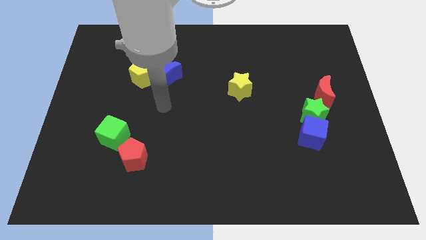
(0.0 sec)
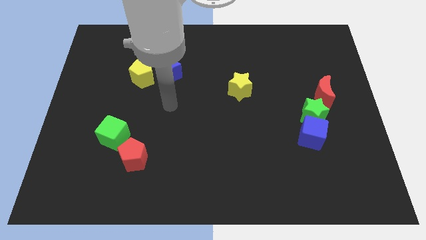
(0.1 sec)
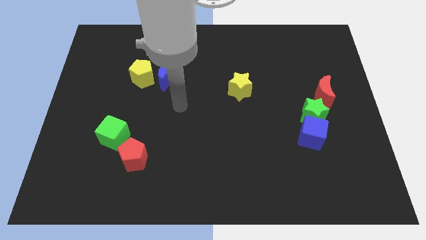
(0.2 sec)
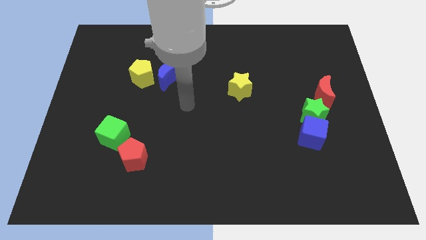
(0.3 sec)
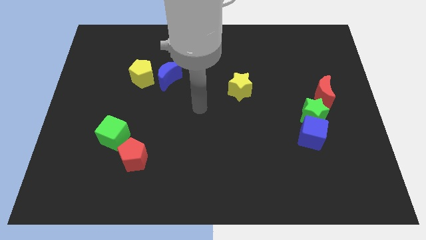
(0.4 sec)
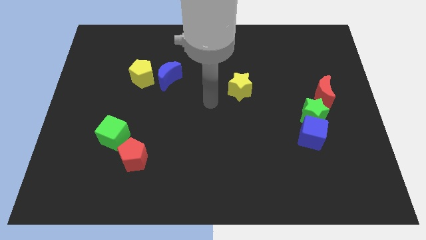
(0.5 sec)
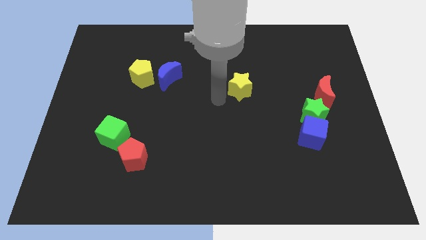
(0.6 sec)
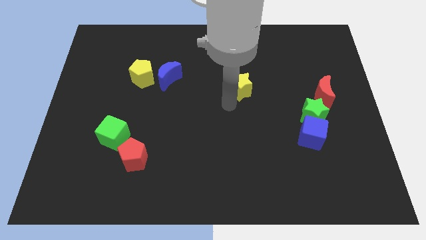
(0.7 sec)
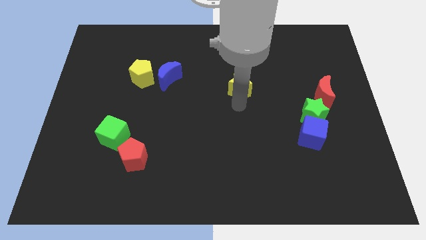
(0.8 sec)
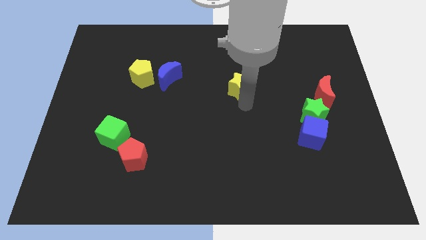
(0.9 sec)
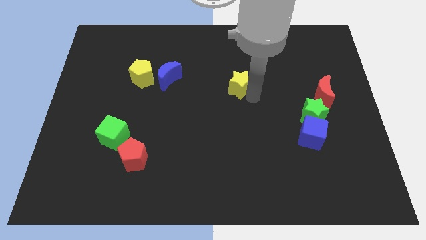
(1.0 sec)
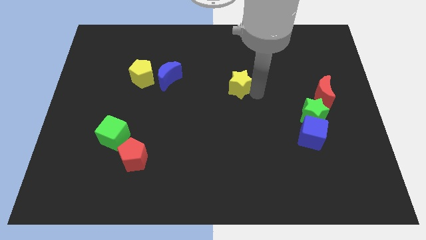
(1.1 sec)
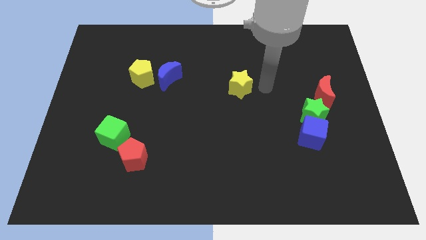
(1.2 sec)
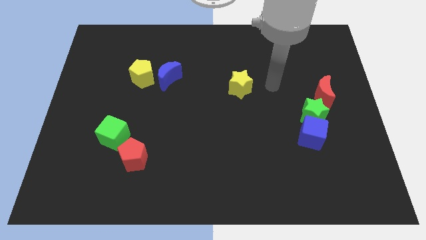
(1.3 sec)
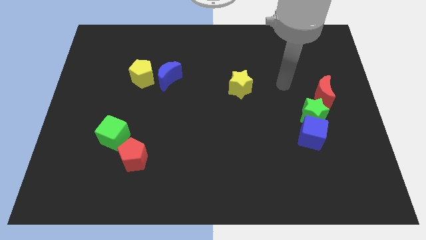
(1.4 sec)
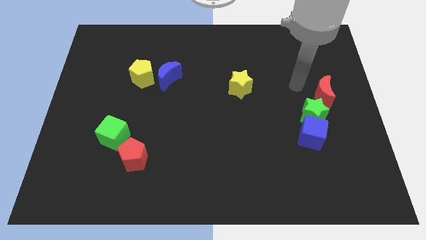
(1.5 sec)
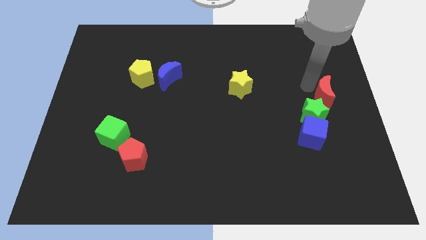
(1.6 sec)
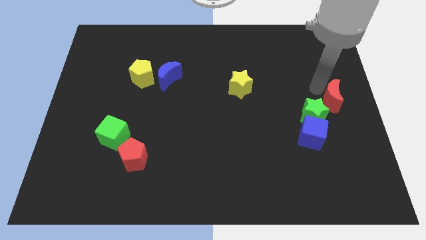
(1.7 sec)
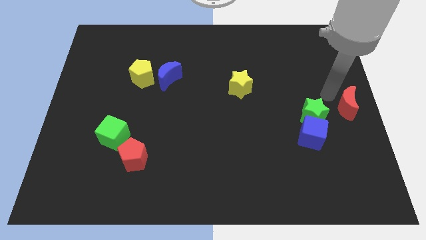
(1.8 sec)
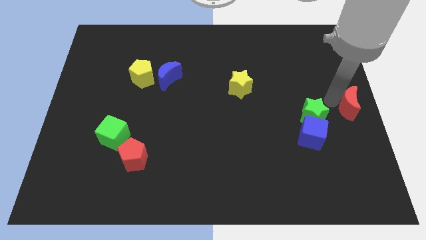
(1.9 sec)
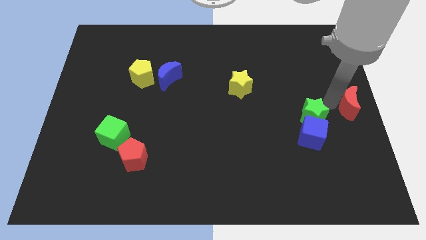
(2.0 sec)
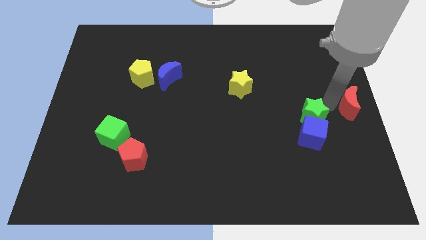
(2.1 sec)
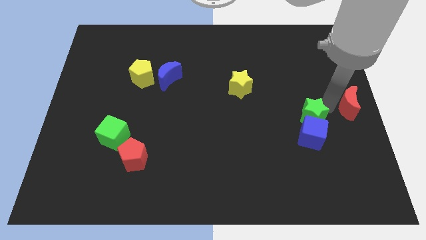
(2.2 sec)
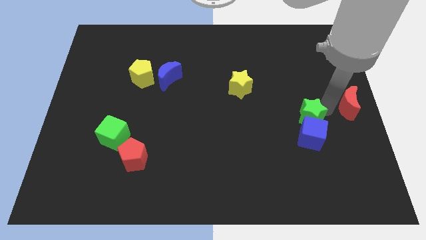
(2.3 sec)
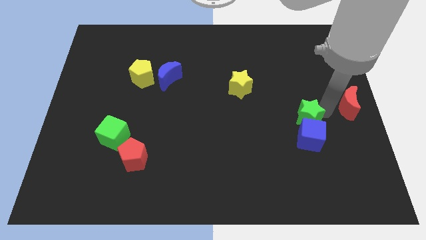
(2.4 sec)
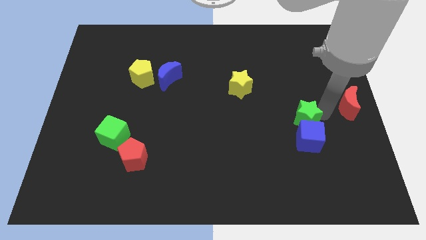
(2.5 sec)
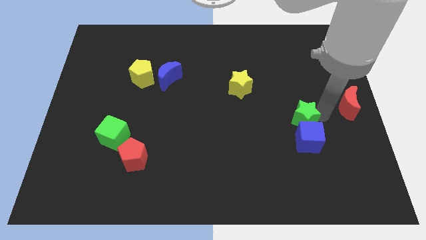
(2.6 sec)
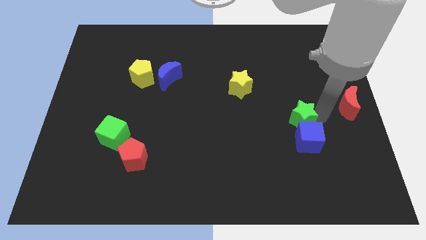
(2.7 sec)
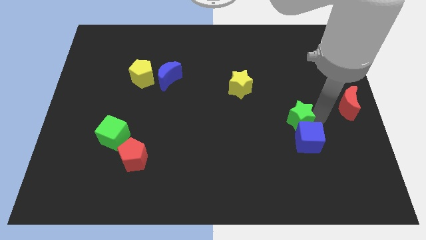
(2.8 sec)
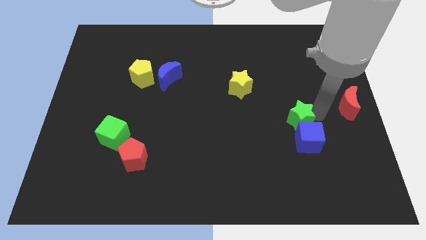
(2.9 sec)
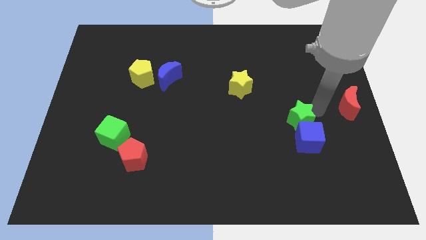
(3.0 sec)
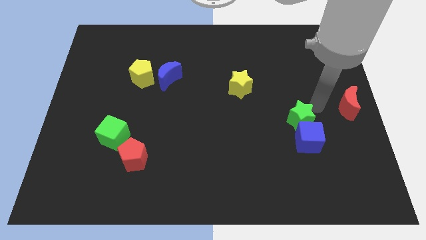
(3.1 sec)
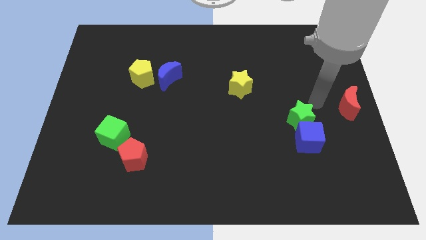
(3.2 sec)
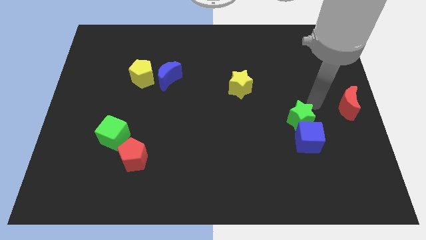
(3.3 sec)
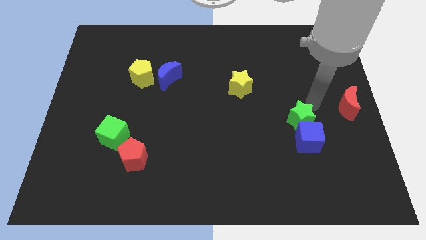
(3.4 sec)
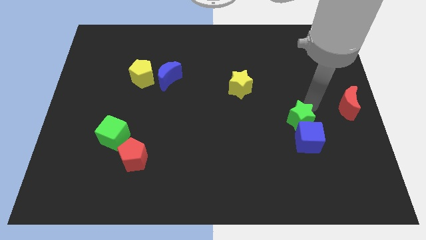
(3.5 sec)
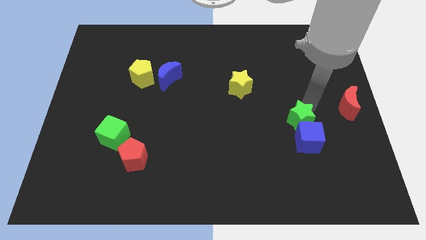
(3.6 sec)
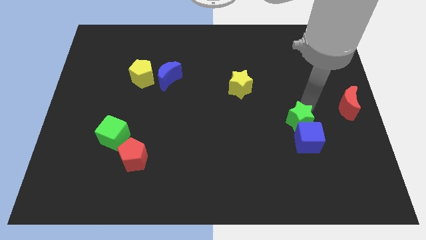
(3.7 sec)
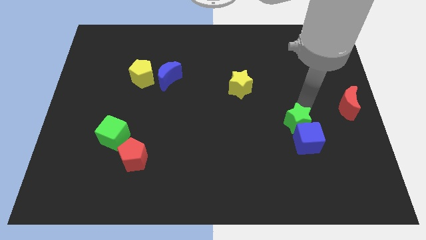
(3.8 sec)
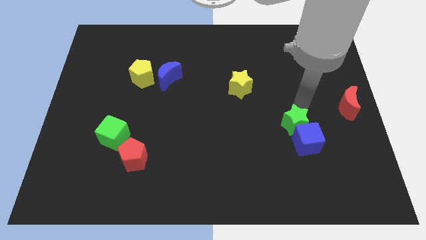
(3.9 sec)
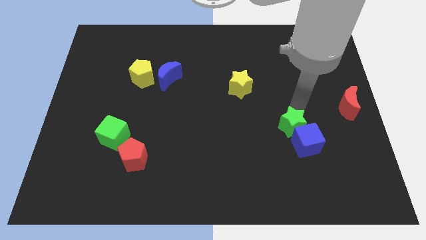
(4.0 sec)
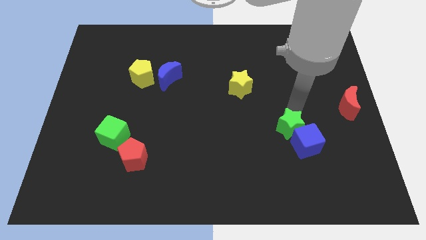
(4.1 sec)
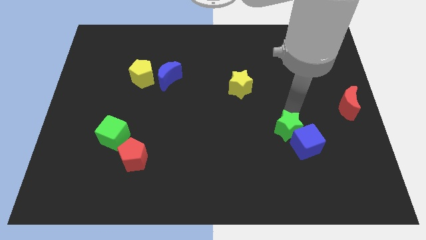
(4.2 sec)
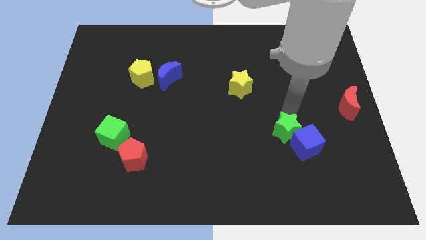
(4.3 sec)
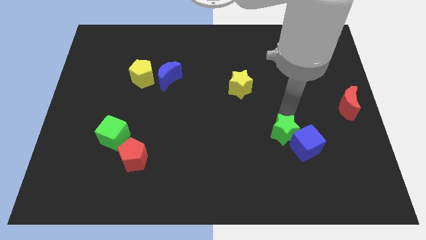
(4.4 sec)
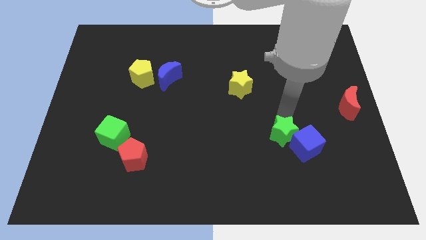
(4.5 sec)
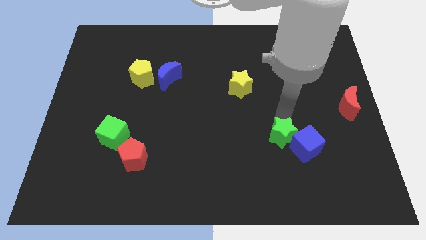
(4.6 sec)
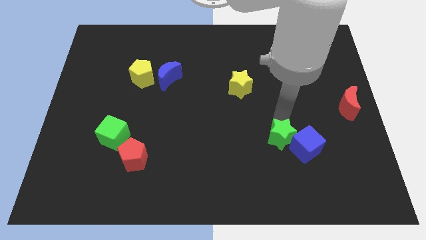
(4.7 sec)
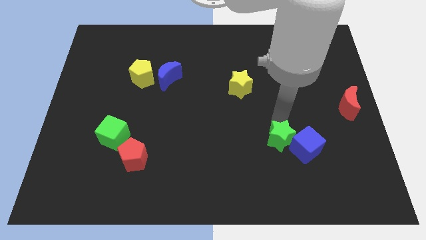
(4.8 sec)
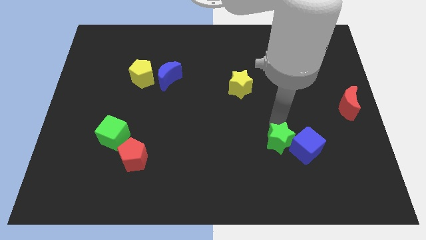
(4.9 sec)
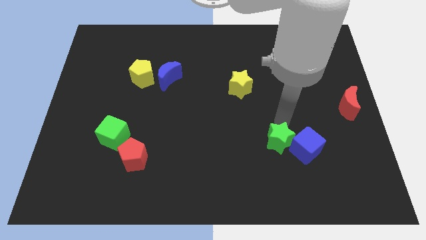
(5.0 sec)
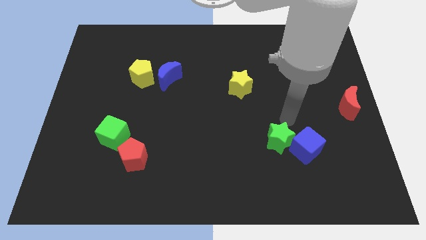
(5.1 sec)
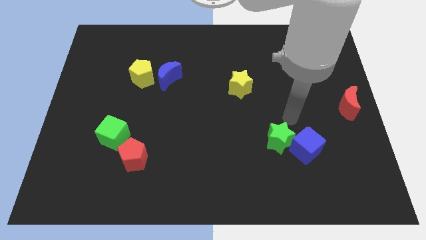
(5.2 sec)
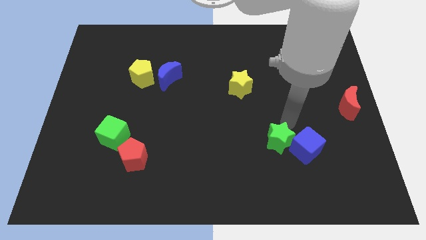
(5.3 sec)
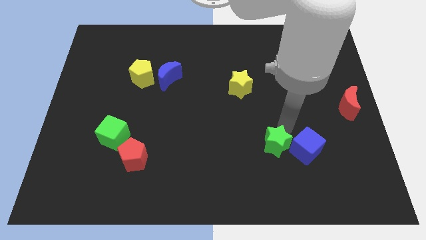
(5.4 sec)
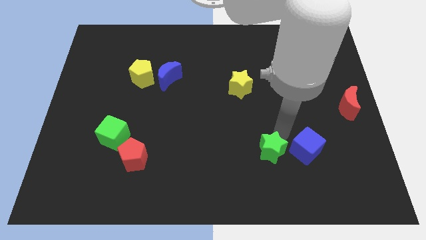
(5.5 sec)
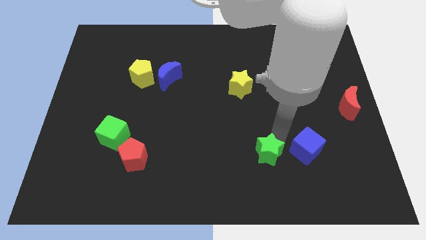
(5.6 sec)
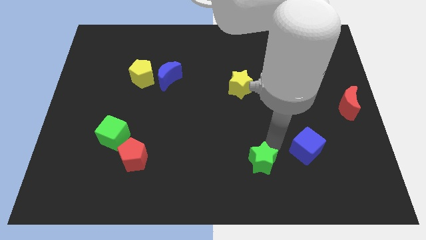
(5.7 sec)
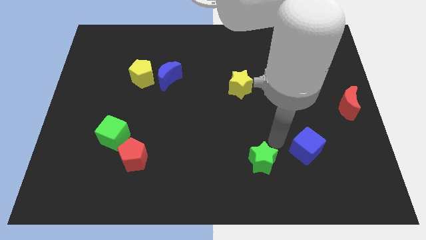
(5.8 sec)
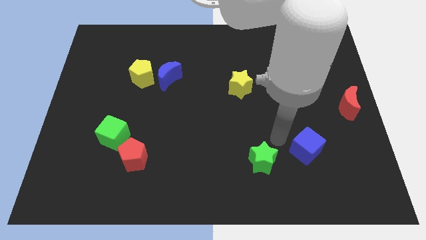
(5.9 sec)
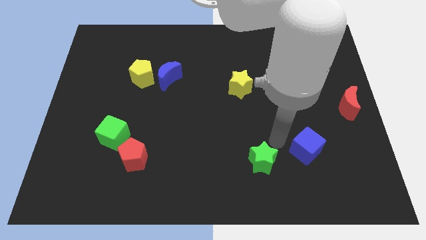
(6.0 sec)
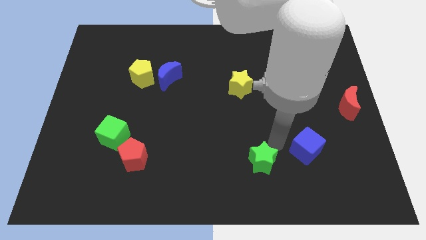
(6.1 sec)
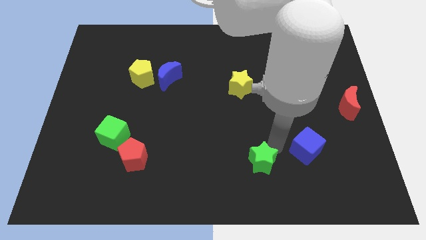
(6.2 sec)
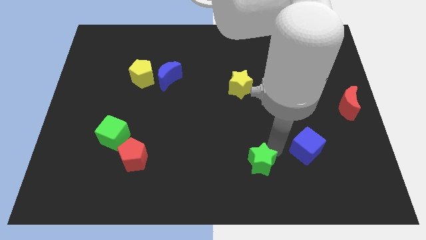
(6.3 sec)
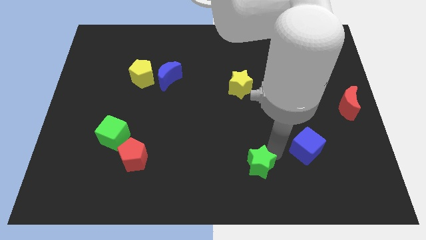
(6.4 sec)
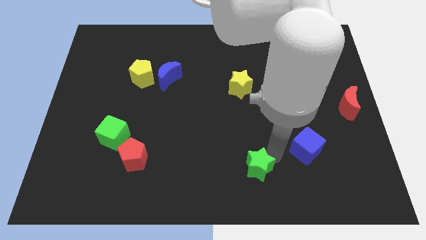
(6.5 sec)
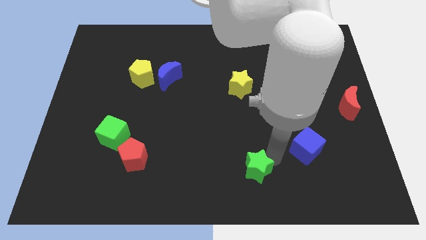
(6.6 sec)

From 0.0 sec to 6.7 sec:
slide the green star to the bottom
